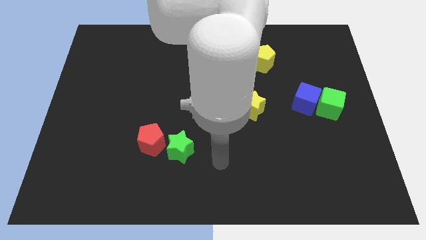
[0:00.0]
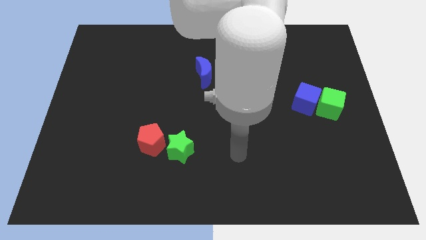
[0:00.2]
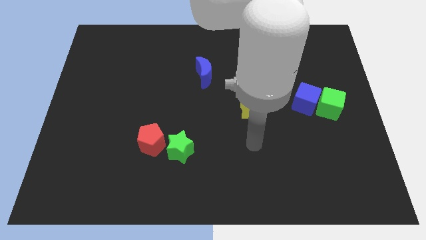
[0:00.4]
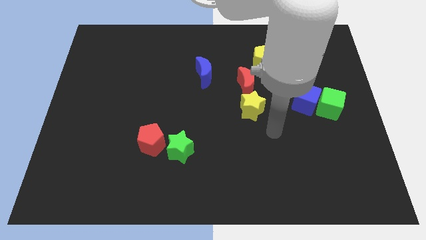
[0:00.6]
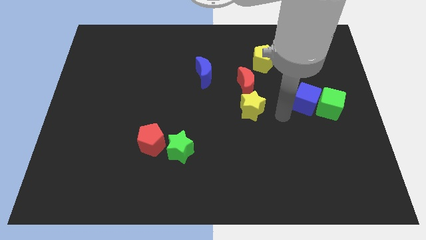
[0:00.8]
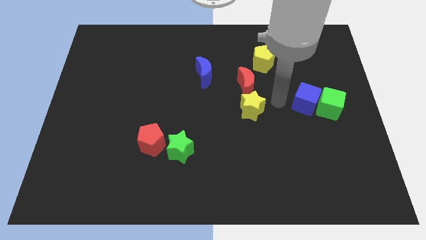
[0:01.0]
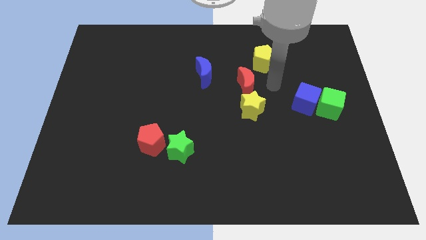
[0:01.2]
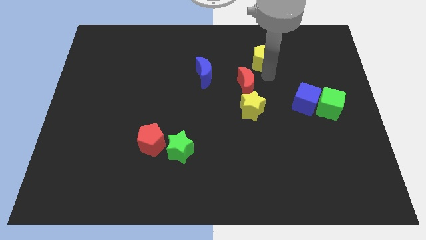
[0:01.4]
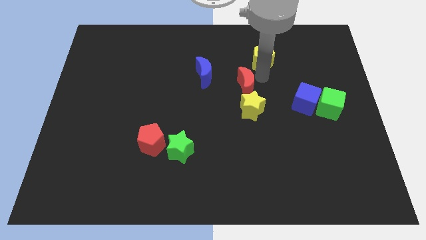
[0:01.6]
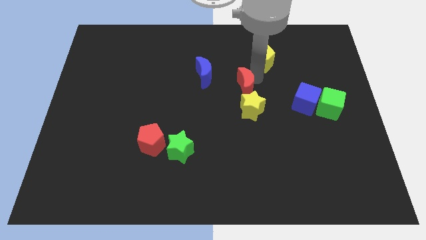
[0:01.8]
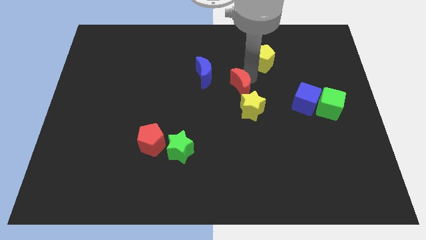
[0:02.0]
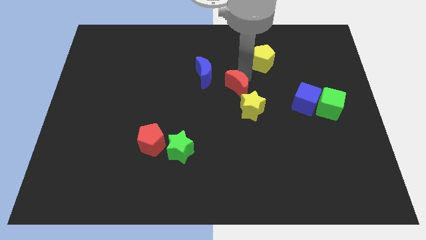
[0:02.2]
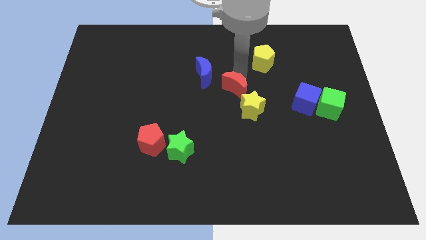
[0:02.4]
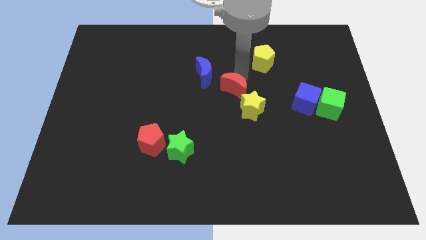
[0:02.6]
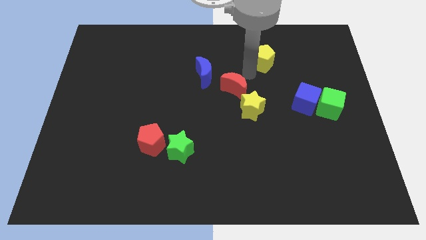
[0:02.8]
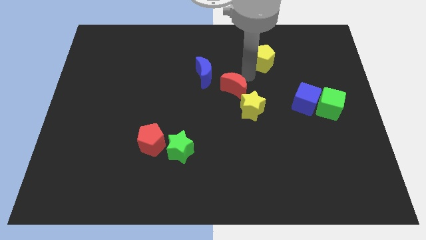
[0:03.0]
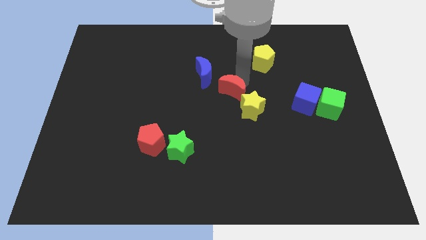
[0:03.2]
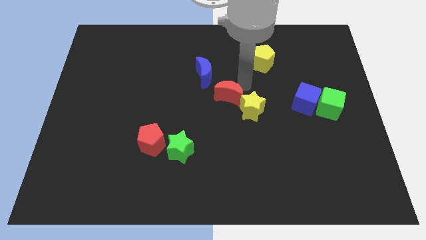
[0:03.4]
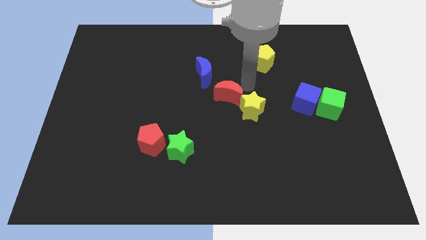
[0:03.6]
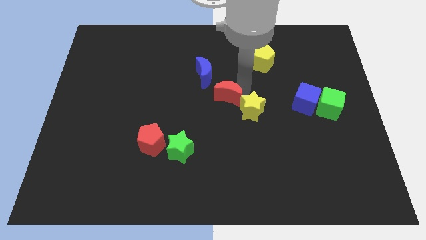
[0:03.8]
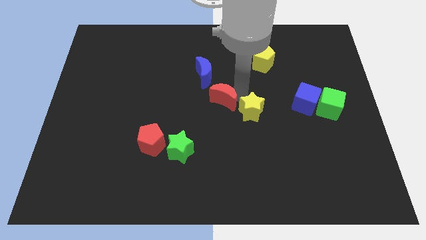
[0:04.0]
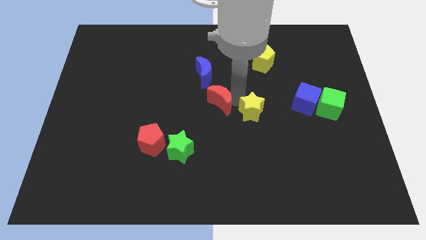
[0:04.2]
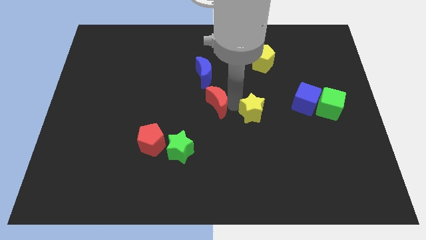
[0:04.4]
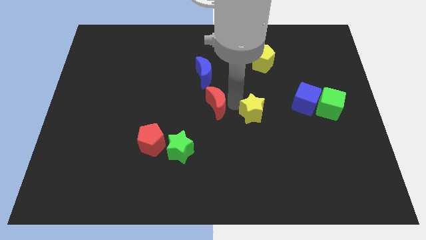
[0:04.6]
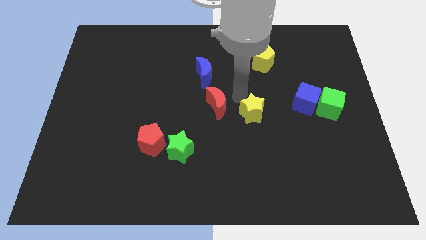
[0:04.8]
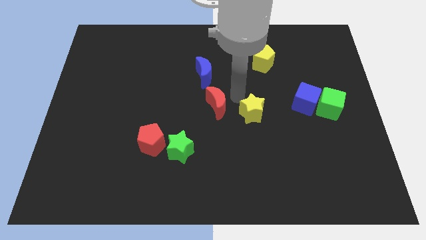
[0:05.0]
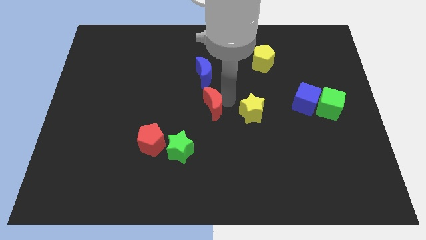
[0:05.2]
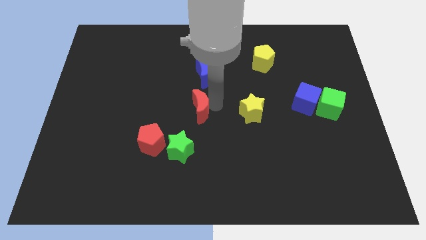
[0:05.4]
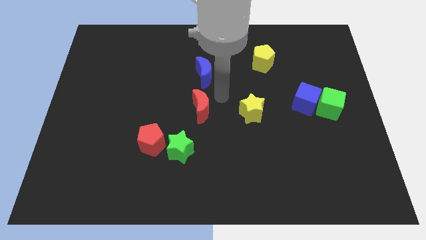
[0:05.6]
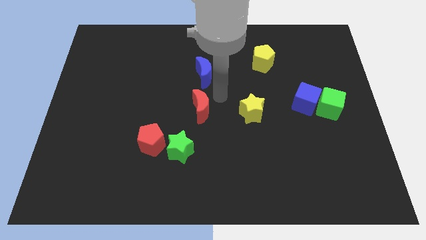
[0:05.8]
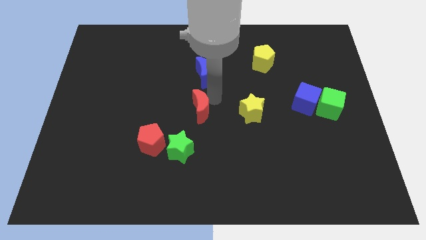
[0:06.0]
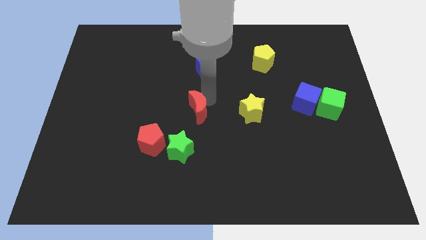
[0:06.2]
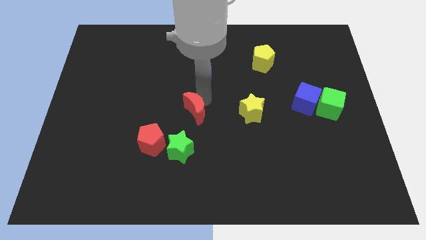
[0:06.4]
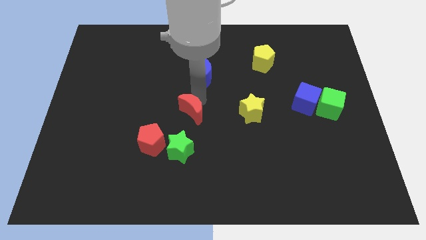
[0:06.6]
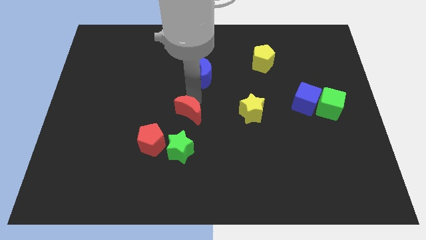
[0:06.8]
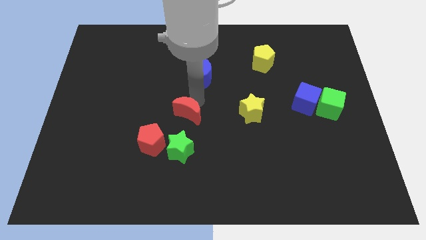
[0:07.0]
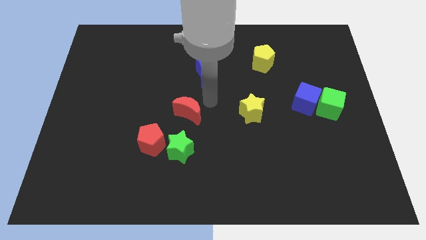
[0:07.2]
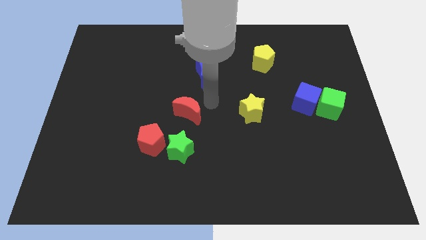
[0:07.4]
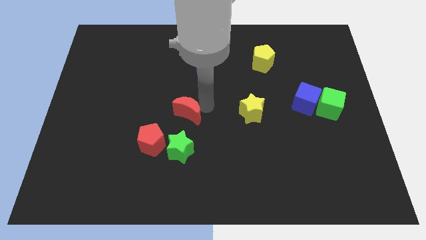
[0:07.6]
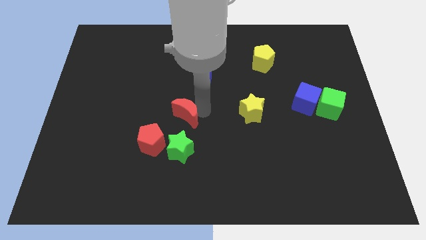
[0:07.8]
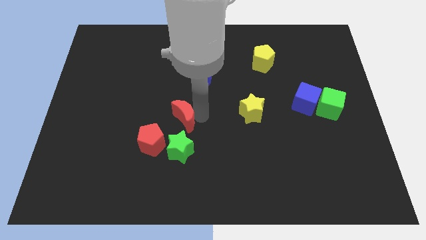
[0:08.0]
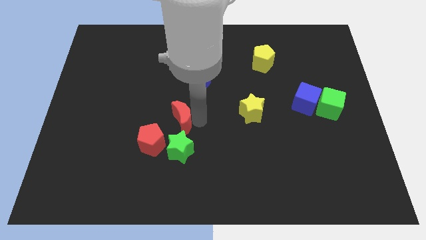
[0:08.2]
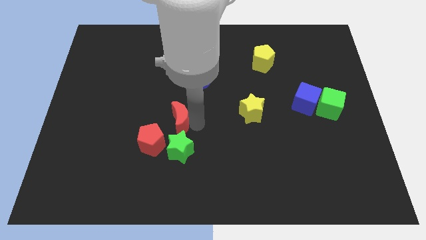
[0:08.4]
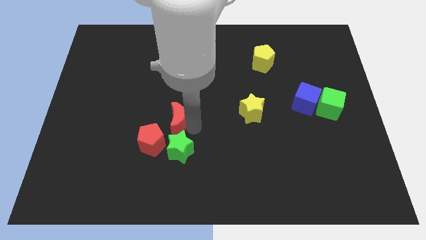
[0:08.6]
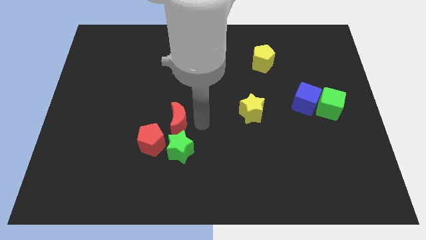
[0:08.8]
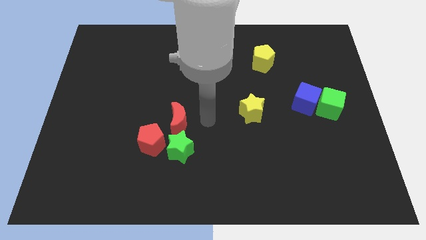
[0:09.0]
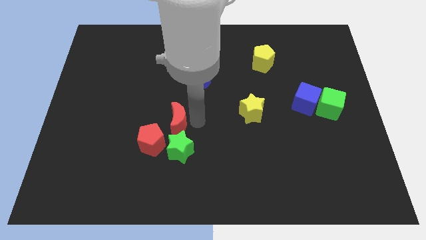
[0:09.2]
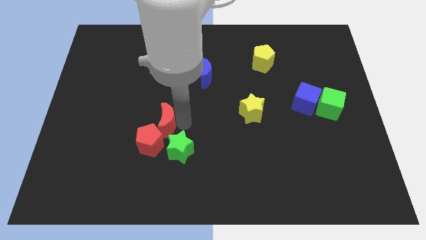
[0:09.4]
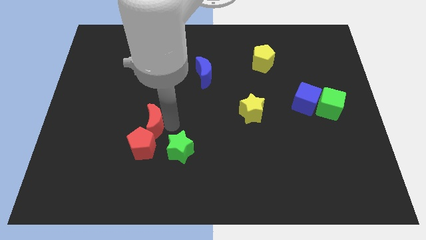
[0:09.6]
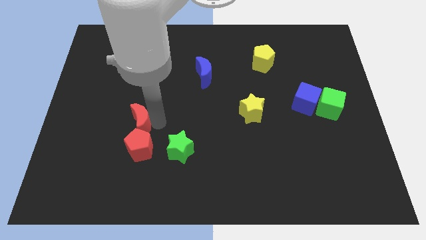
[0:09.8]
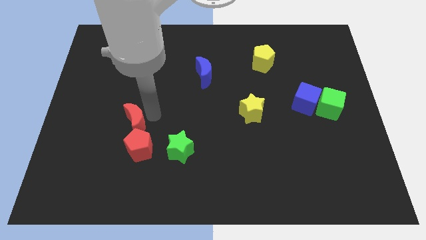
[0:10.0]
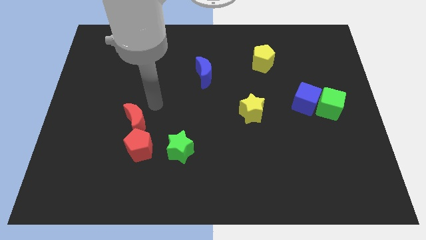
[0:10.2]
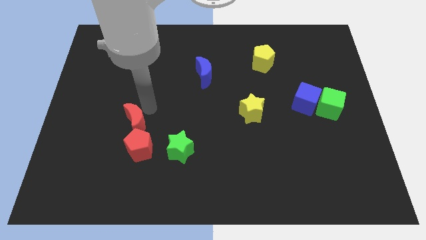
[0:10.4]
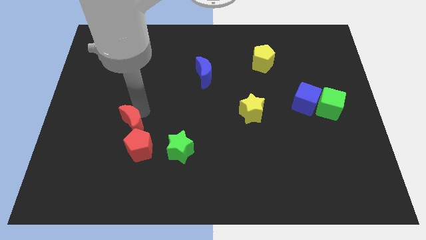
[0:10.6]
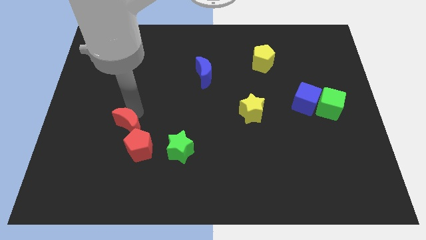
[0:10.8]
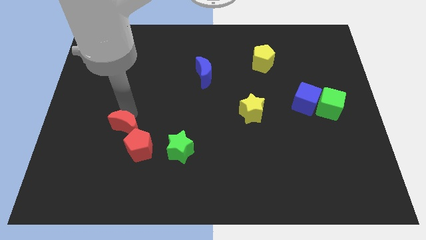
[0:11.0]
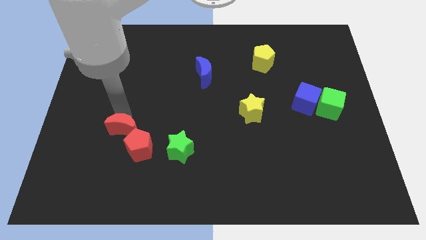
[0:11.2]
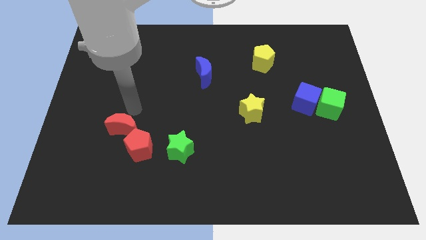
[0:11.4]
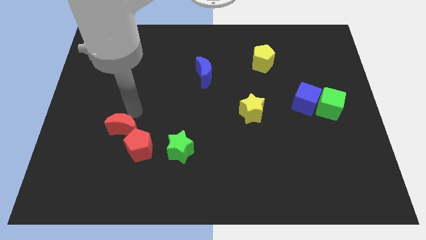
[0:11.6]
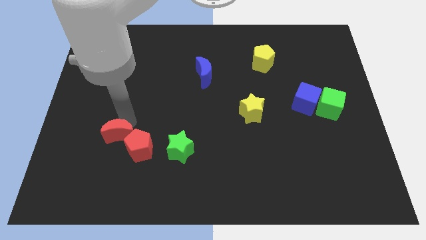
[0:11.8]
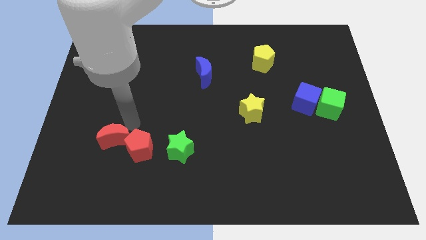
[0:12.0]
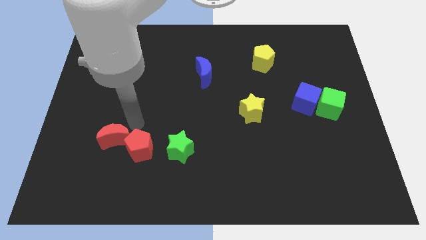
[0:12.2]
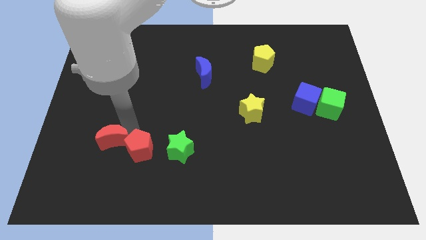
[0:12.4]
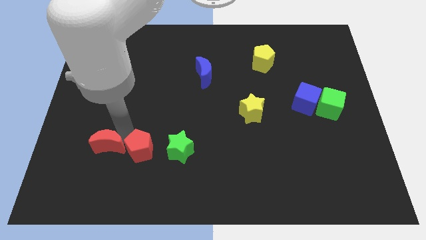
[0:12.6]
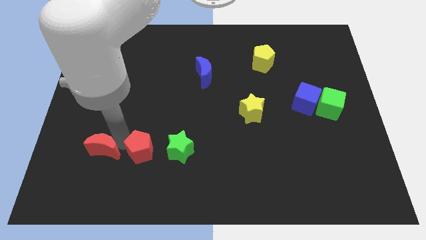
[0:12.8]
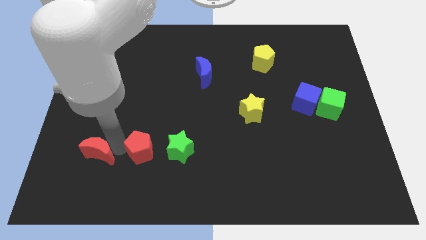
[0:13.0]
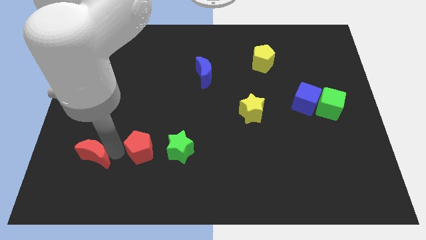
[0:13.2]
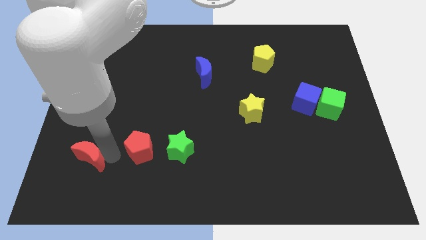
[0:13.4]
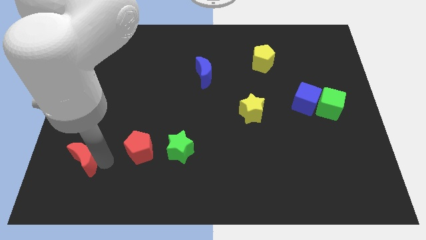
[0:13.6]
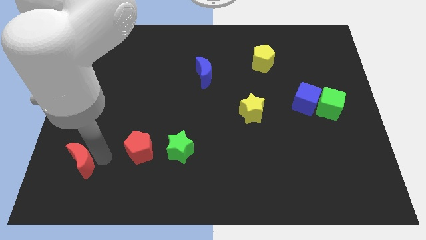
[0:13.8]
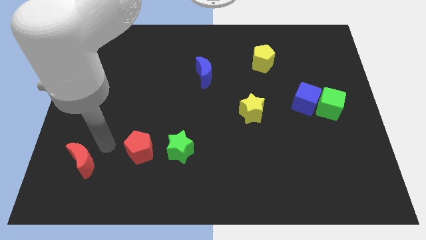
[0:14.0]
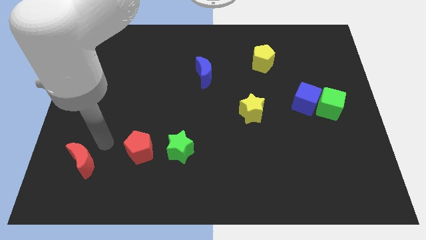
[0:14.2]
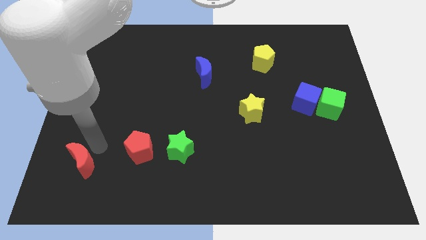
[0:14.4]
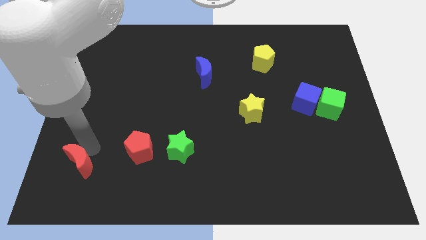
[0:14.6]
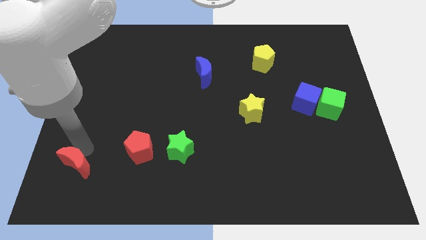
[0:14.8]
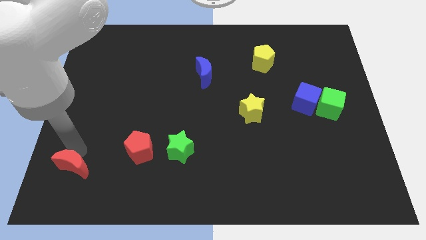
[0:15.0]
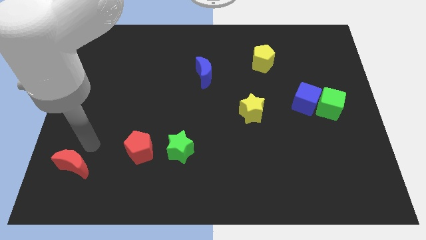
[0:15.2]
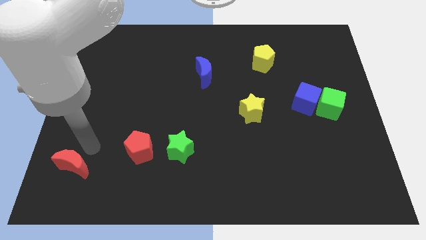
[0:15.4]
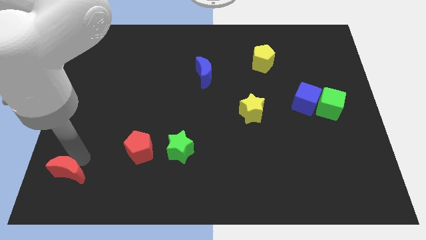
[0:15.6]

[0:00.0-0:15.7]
push the red moon to the lower left corner
